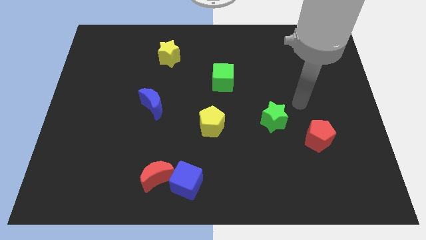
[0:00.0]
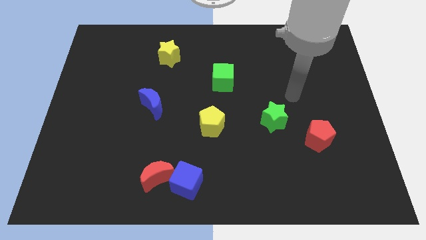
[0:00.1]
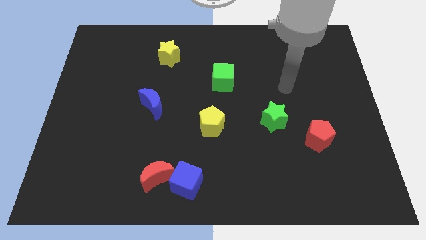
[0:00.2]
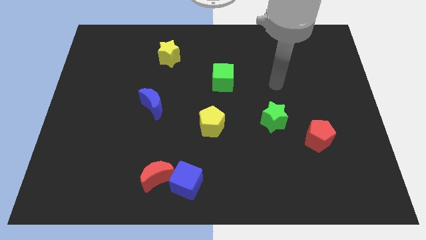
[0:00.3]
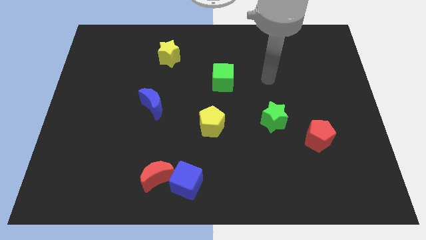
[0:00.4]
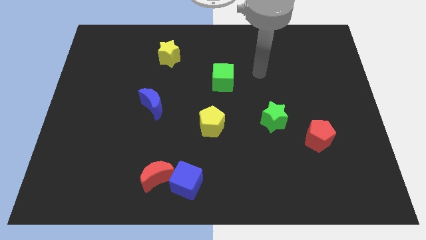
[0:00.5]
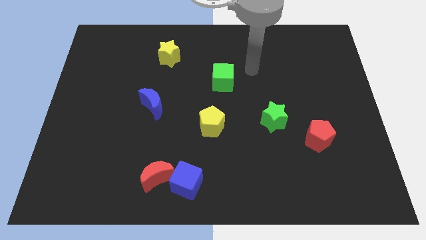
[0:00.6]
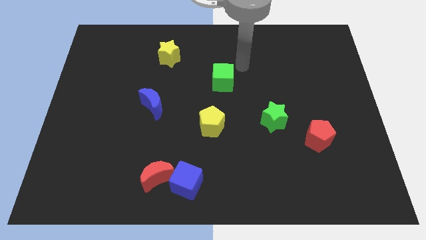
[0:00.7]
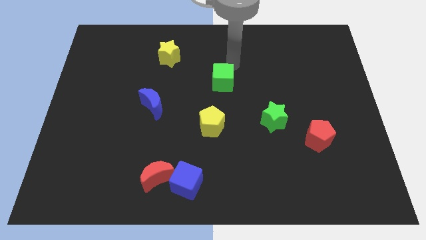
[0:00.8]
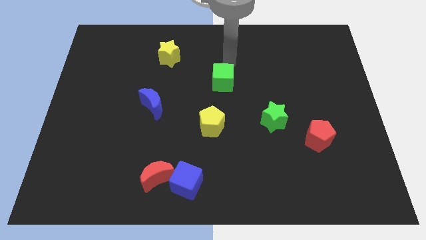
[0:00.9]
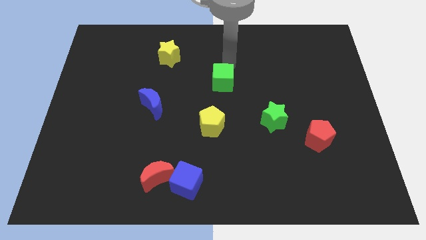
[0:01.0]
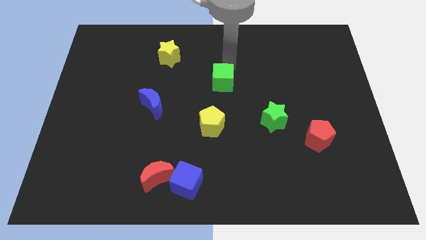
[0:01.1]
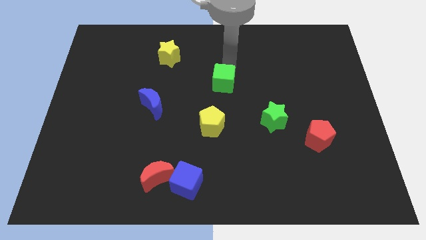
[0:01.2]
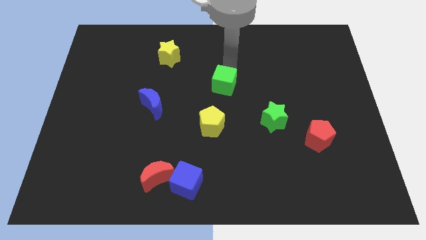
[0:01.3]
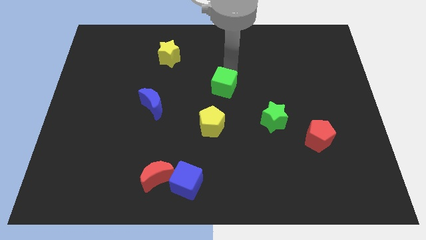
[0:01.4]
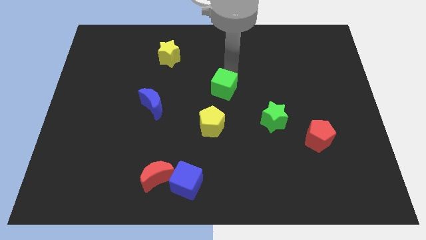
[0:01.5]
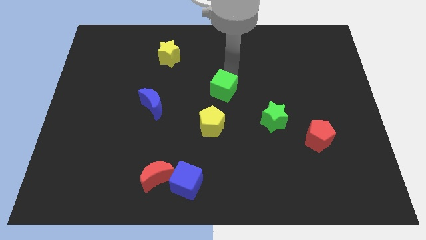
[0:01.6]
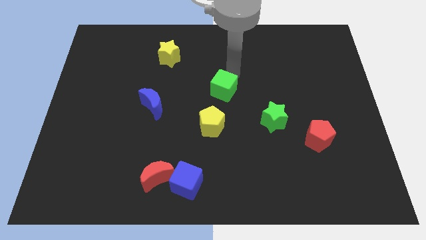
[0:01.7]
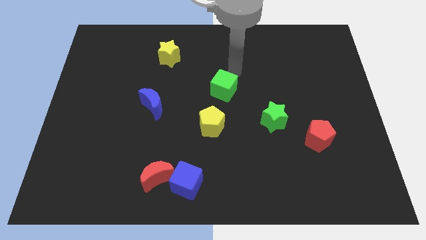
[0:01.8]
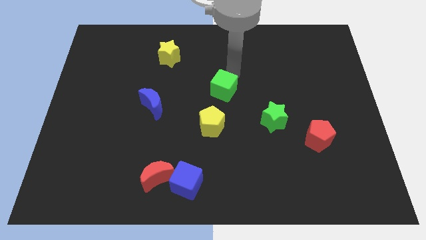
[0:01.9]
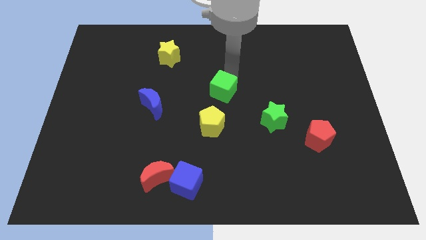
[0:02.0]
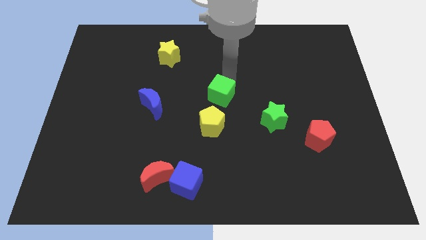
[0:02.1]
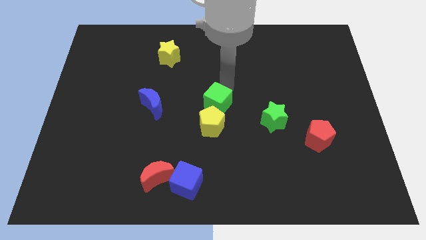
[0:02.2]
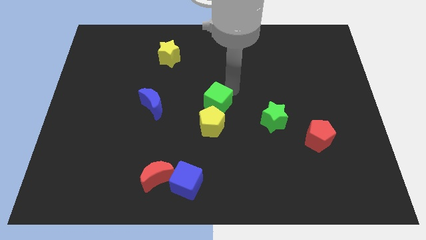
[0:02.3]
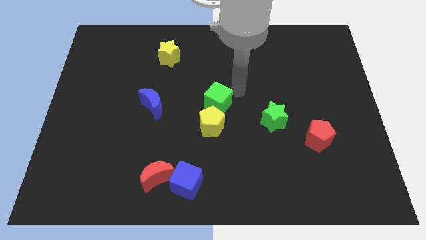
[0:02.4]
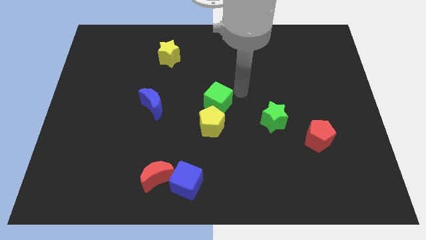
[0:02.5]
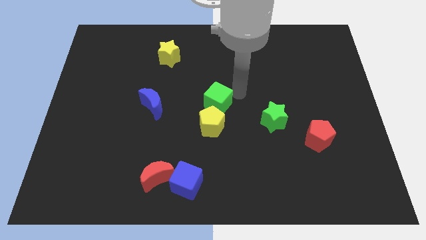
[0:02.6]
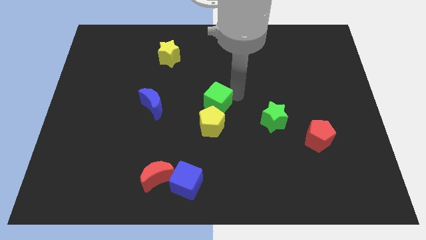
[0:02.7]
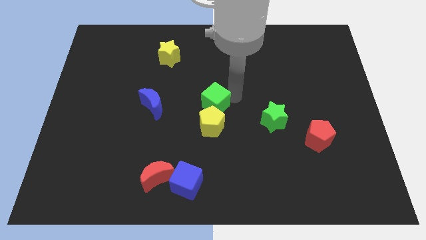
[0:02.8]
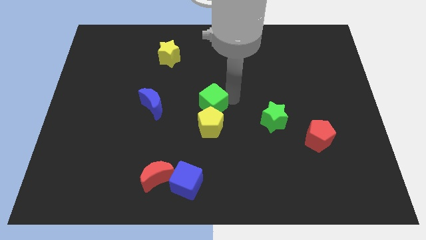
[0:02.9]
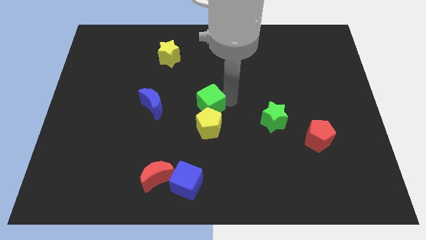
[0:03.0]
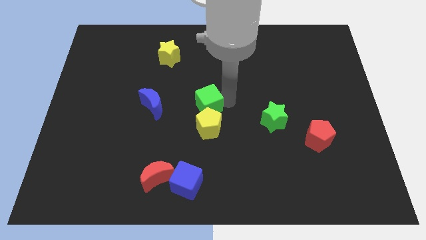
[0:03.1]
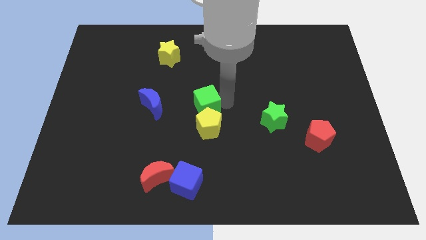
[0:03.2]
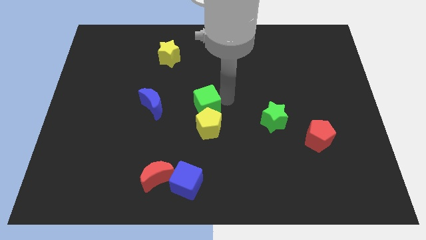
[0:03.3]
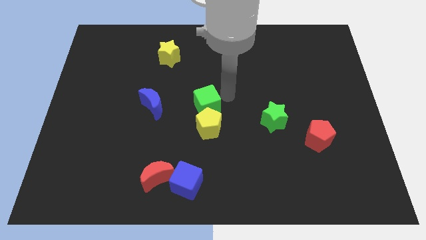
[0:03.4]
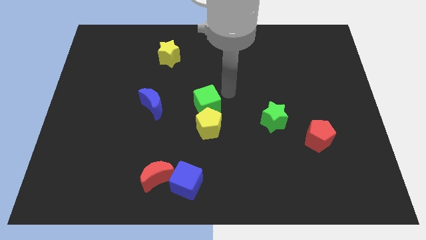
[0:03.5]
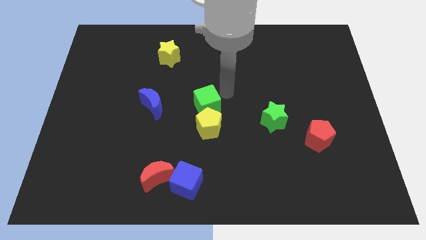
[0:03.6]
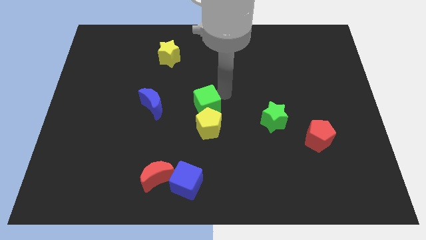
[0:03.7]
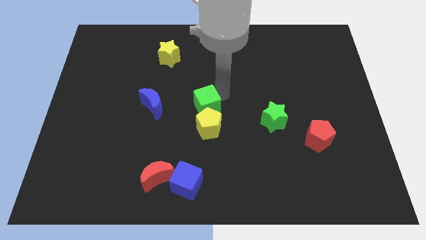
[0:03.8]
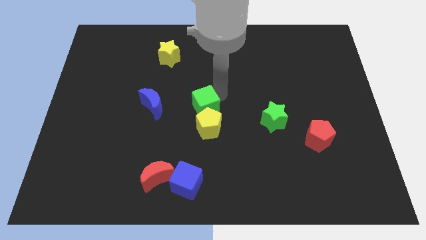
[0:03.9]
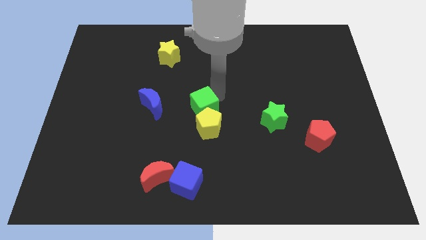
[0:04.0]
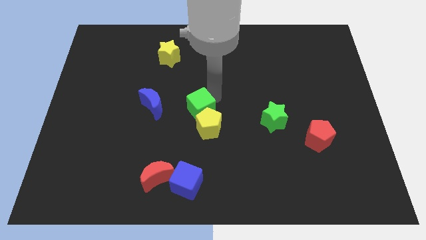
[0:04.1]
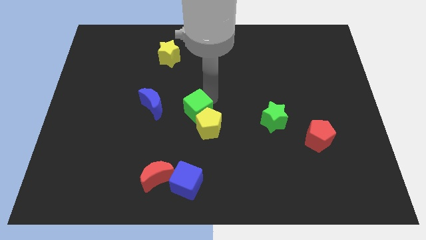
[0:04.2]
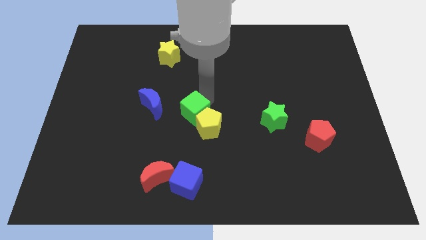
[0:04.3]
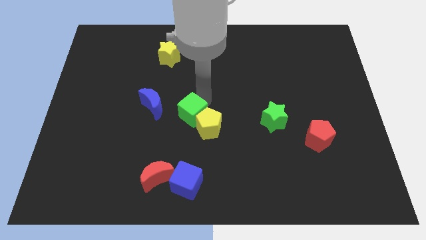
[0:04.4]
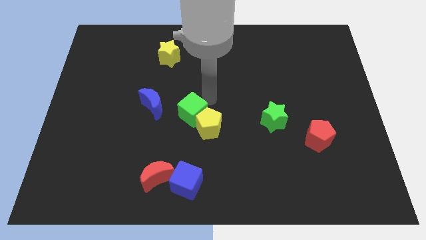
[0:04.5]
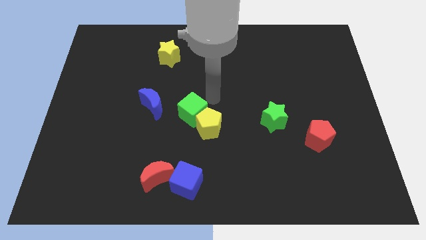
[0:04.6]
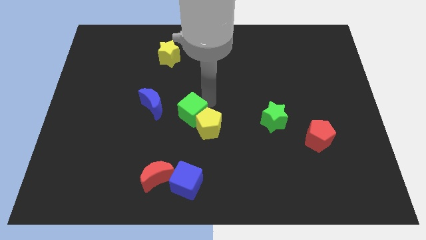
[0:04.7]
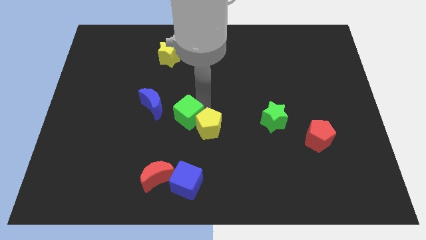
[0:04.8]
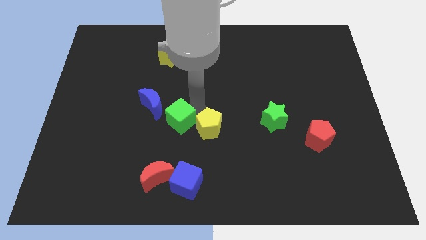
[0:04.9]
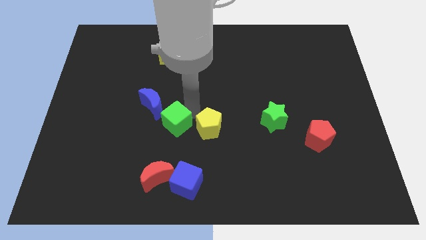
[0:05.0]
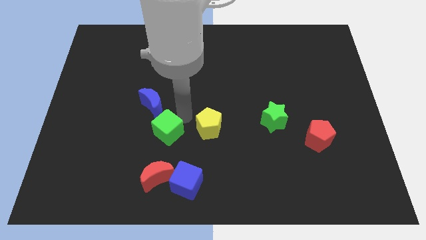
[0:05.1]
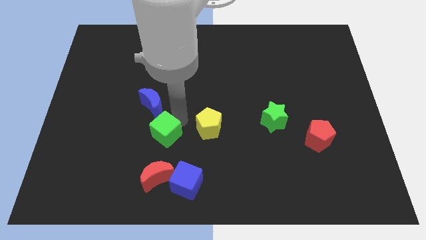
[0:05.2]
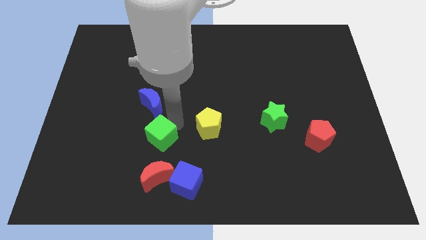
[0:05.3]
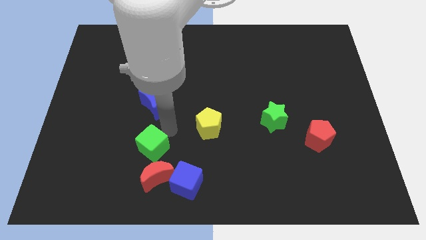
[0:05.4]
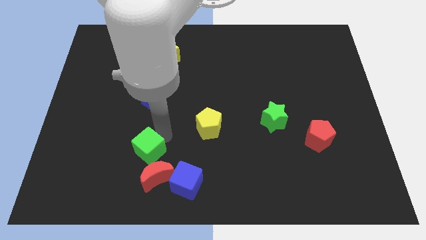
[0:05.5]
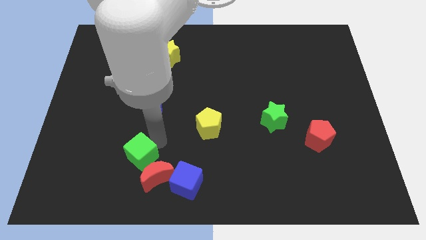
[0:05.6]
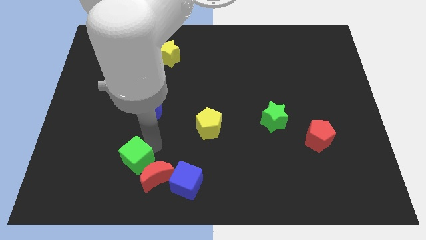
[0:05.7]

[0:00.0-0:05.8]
put the green cube left of the red moon
